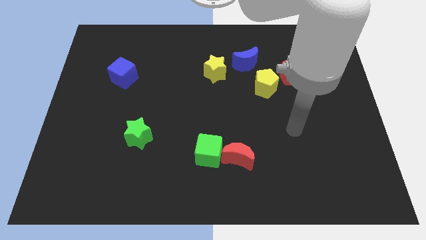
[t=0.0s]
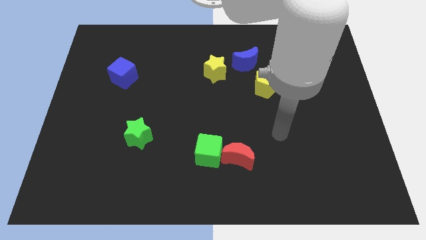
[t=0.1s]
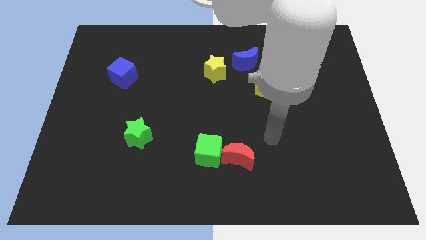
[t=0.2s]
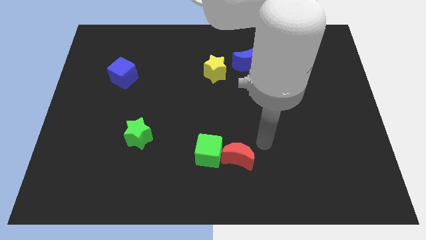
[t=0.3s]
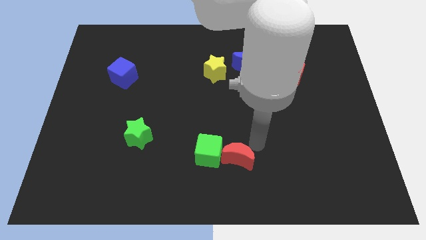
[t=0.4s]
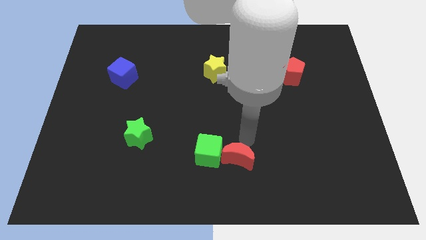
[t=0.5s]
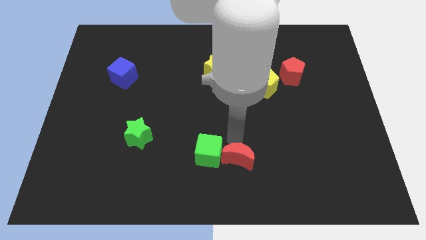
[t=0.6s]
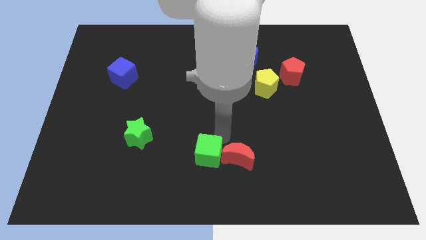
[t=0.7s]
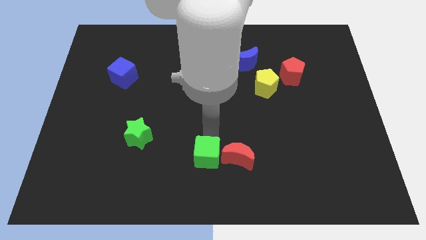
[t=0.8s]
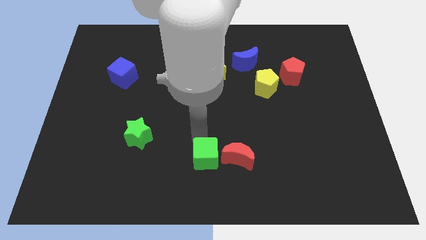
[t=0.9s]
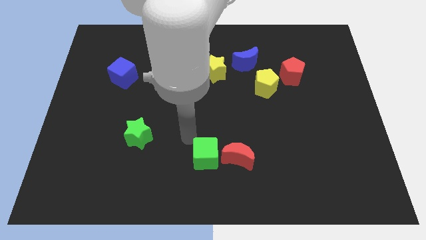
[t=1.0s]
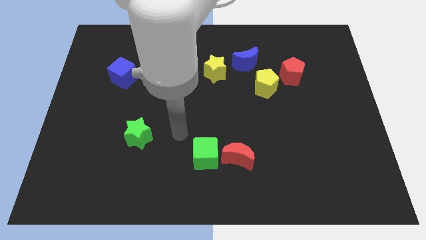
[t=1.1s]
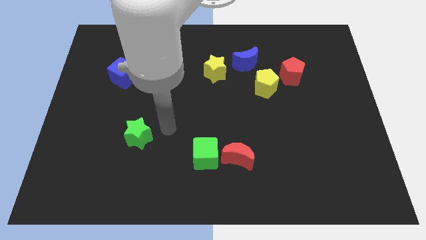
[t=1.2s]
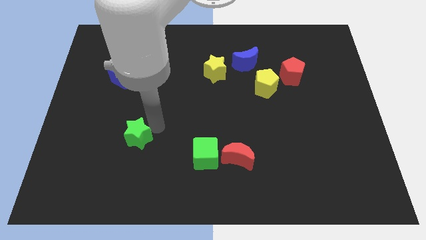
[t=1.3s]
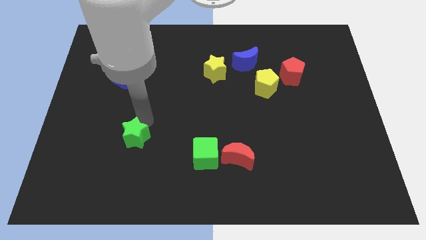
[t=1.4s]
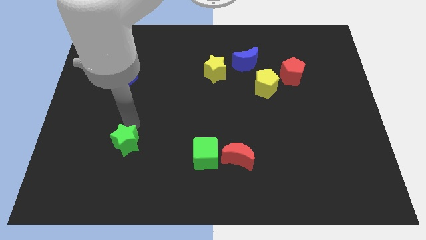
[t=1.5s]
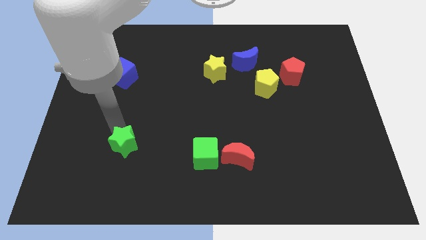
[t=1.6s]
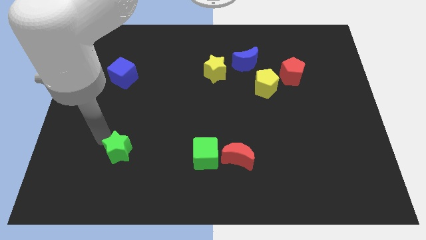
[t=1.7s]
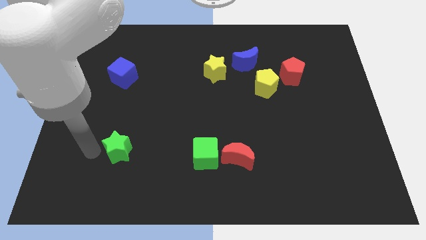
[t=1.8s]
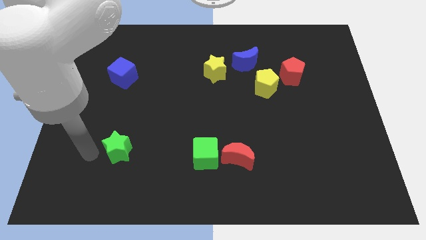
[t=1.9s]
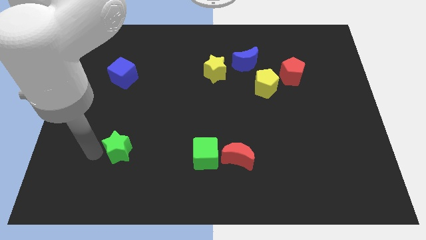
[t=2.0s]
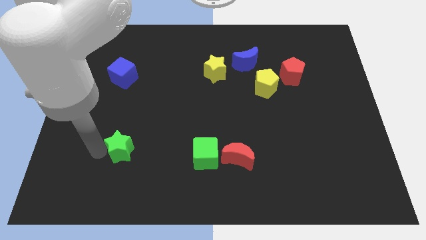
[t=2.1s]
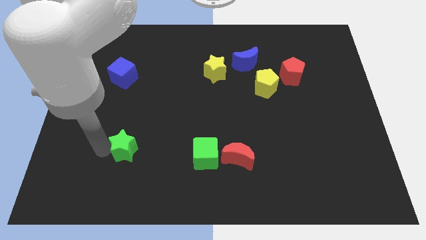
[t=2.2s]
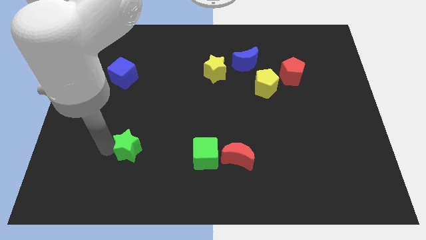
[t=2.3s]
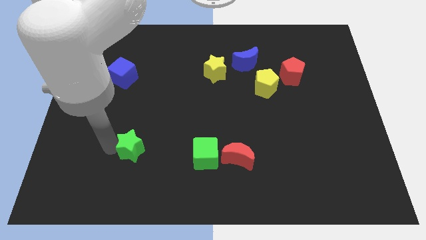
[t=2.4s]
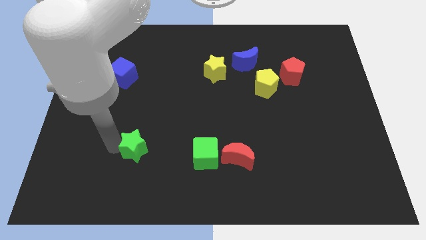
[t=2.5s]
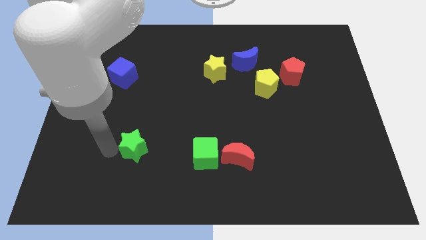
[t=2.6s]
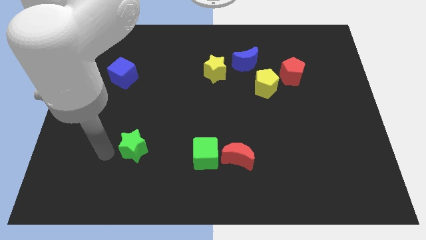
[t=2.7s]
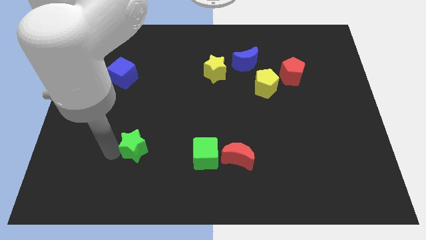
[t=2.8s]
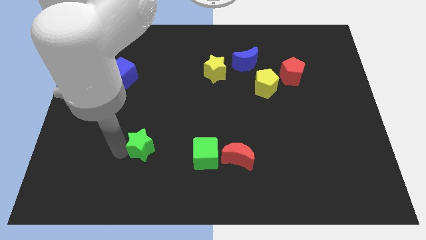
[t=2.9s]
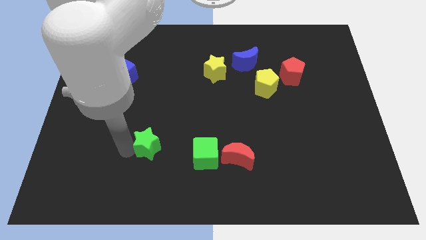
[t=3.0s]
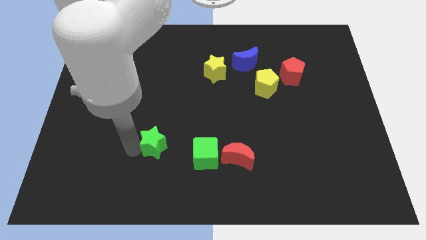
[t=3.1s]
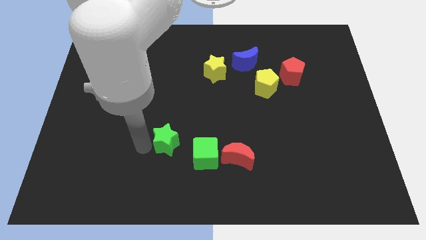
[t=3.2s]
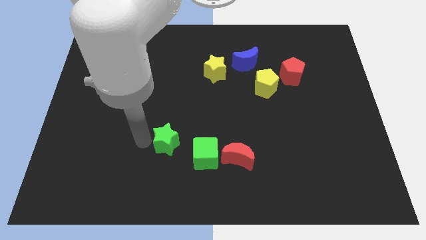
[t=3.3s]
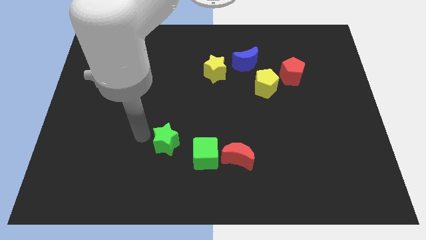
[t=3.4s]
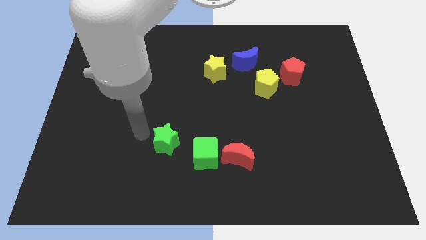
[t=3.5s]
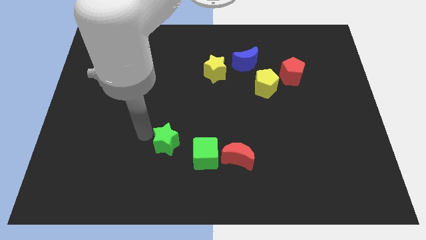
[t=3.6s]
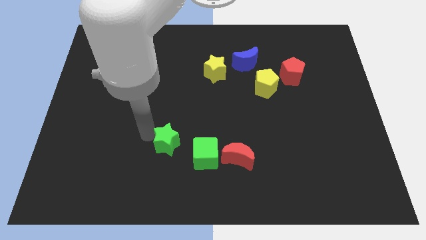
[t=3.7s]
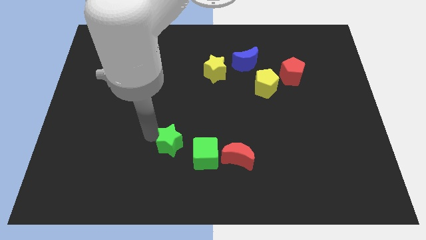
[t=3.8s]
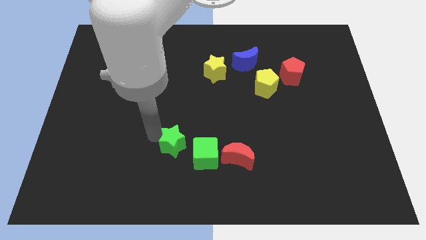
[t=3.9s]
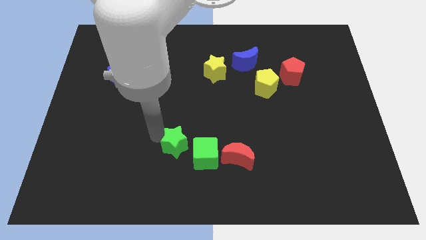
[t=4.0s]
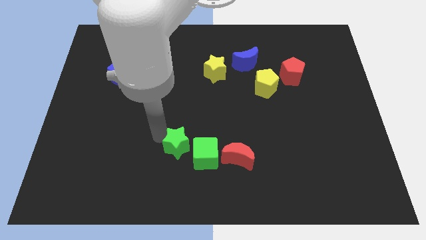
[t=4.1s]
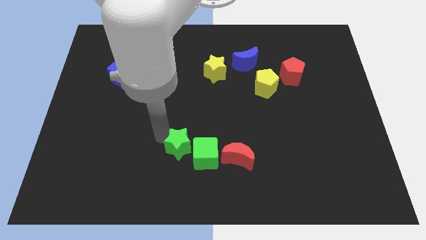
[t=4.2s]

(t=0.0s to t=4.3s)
push the green star close to the green cube

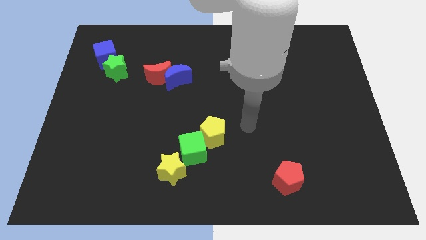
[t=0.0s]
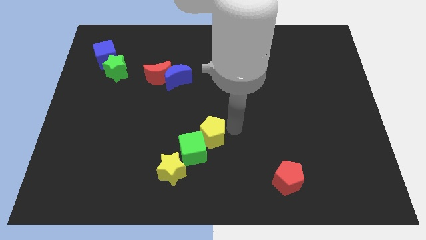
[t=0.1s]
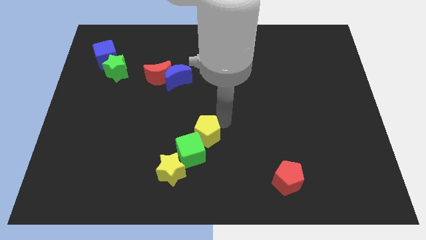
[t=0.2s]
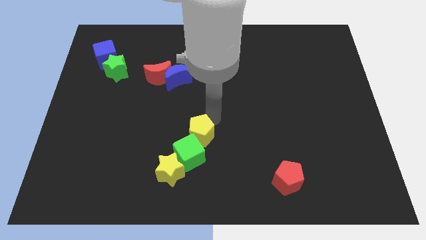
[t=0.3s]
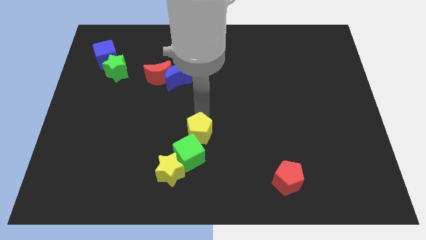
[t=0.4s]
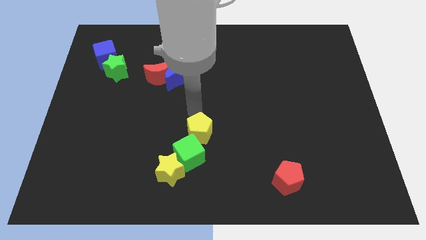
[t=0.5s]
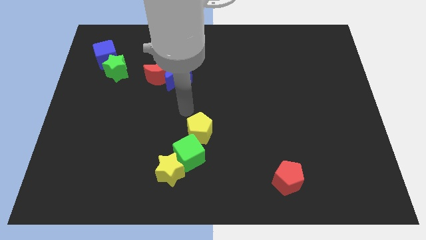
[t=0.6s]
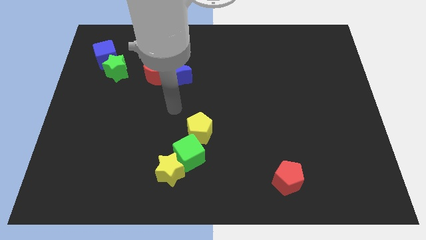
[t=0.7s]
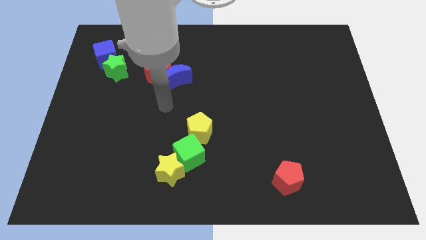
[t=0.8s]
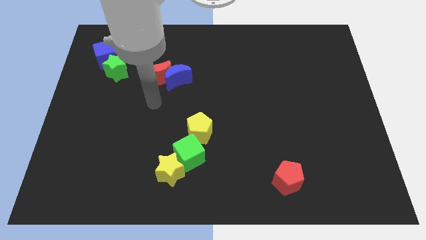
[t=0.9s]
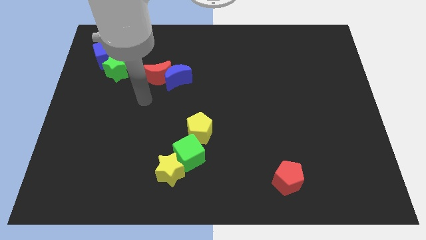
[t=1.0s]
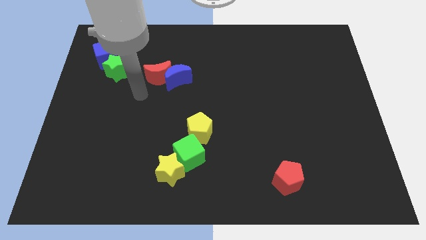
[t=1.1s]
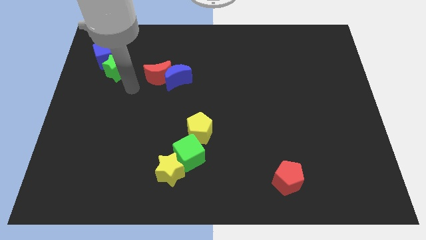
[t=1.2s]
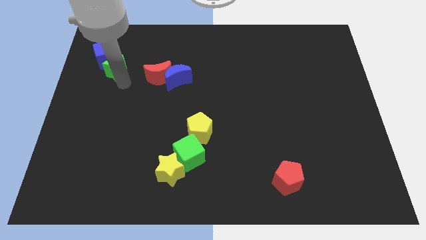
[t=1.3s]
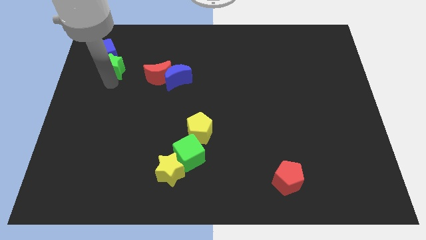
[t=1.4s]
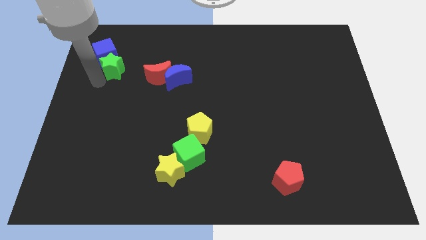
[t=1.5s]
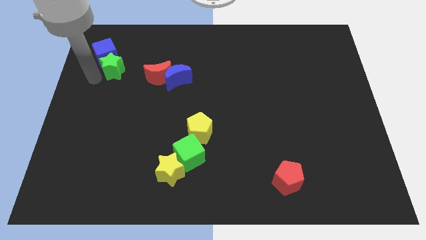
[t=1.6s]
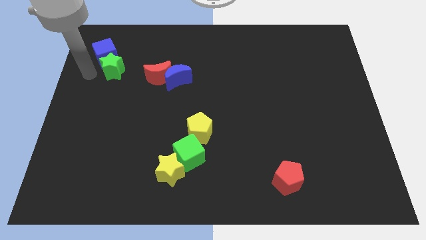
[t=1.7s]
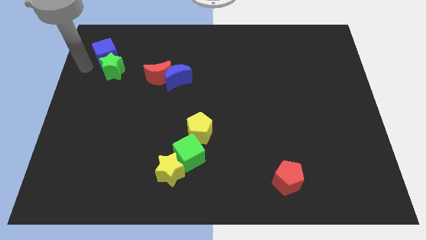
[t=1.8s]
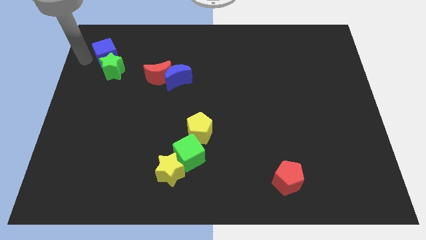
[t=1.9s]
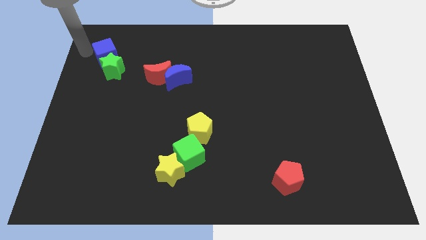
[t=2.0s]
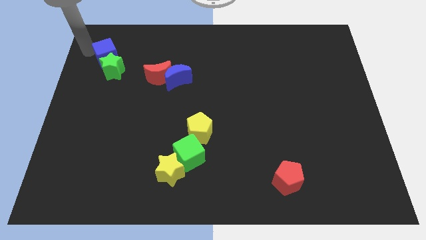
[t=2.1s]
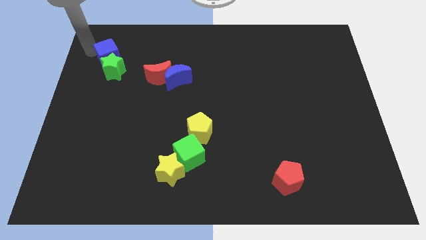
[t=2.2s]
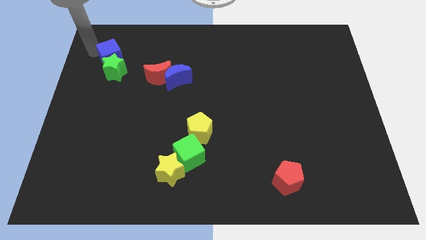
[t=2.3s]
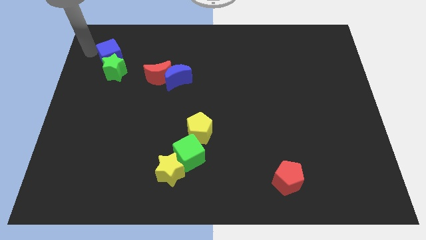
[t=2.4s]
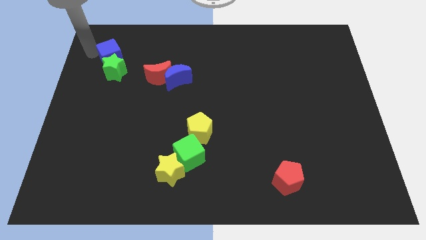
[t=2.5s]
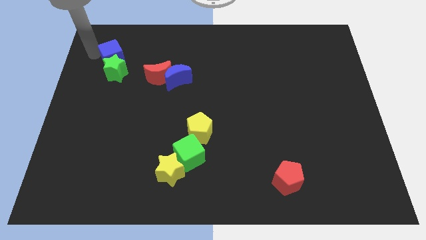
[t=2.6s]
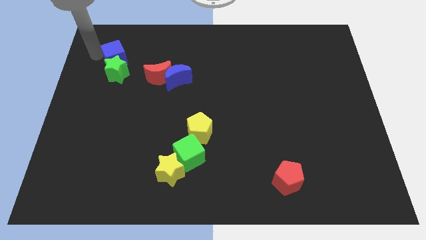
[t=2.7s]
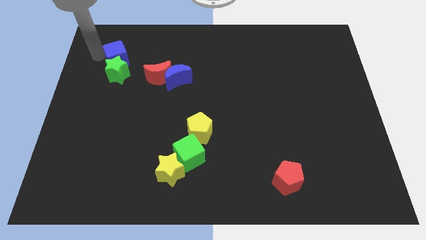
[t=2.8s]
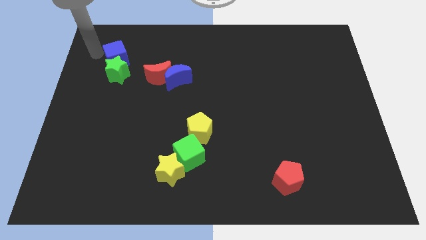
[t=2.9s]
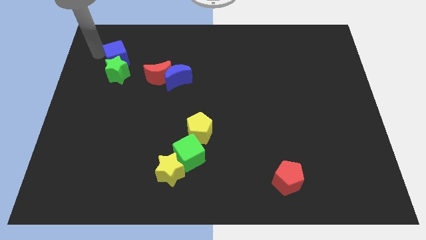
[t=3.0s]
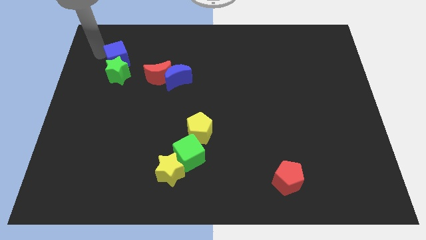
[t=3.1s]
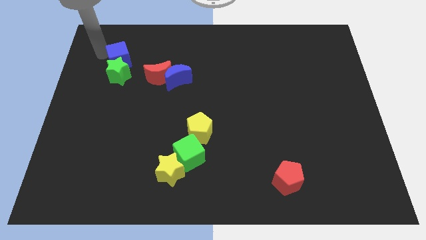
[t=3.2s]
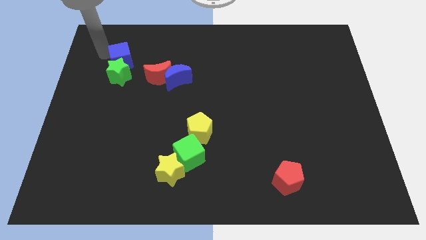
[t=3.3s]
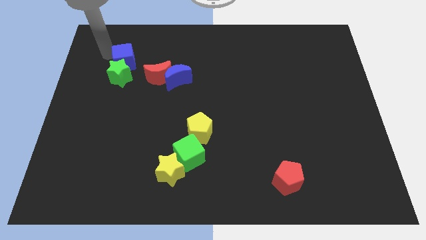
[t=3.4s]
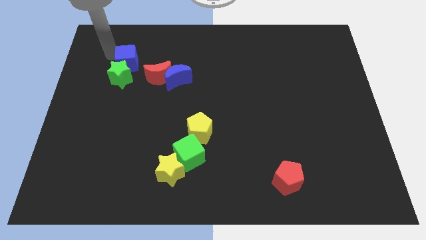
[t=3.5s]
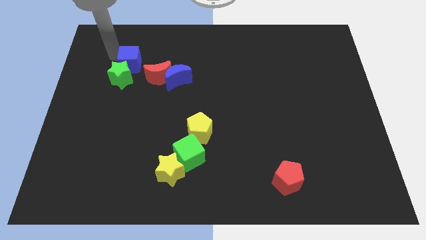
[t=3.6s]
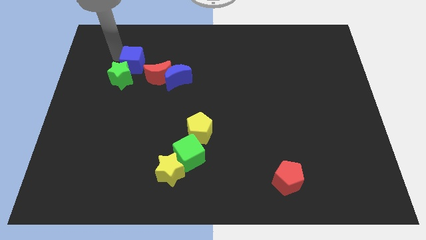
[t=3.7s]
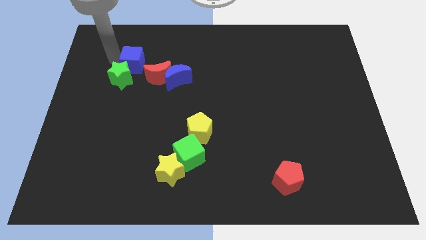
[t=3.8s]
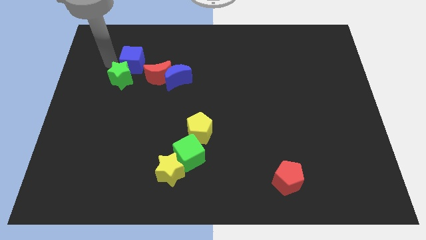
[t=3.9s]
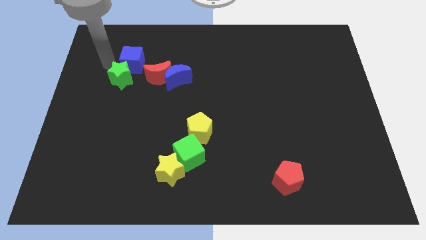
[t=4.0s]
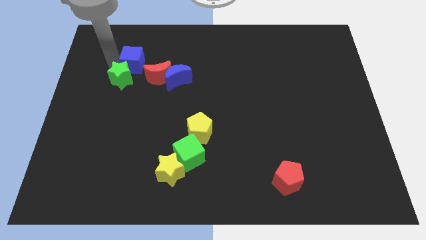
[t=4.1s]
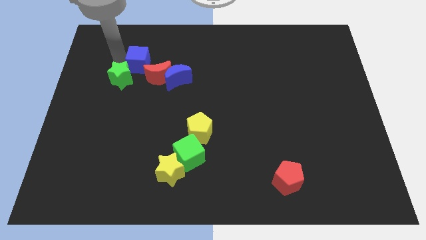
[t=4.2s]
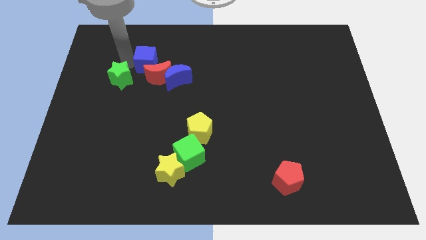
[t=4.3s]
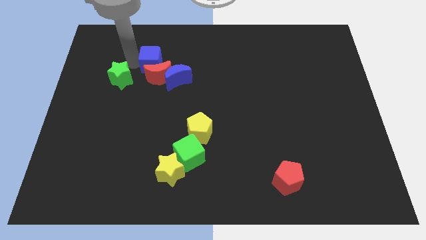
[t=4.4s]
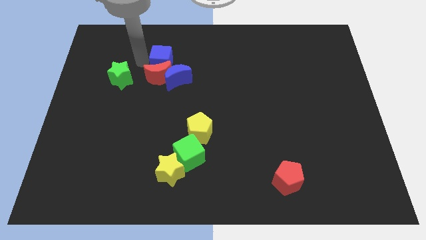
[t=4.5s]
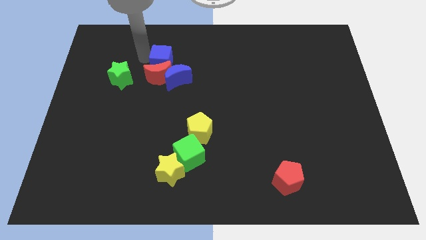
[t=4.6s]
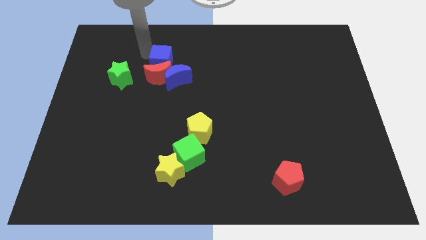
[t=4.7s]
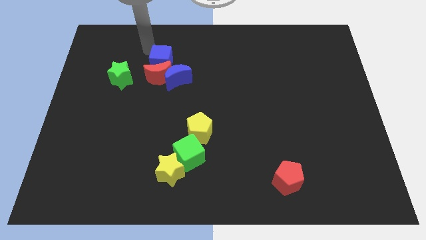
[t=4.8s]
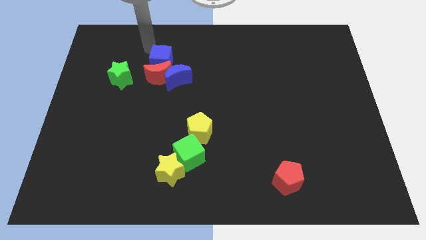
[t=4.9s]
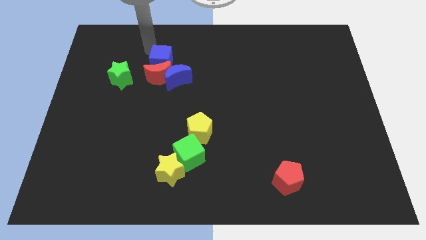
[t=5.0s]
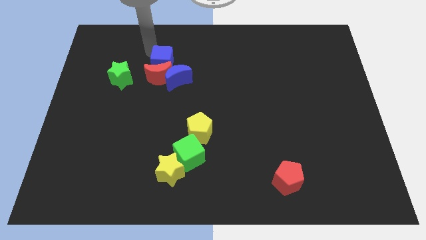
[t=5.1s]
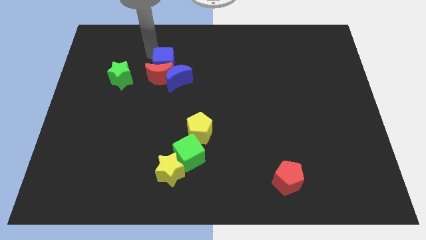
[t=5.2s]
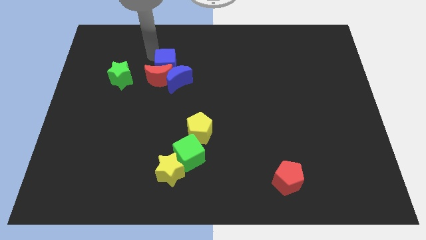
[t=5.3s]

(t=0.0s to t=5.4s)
move the blue cube close to the blue moon
